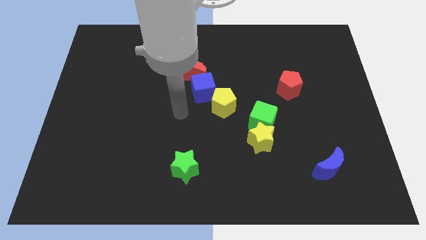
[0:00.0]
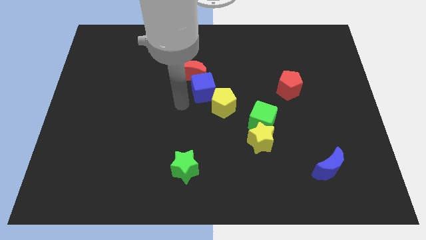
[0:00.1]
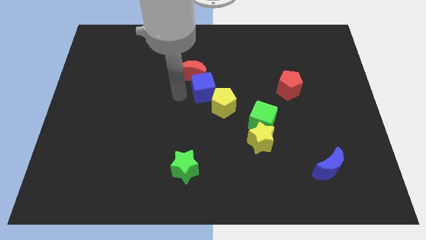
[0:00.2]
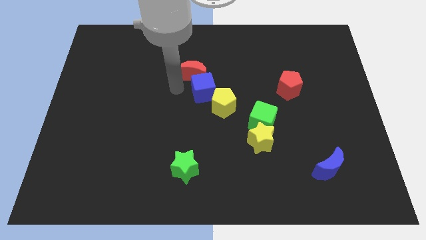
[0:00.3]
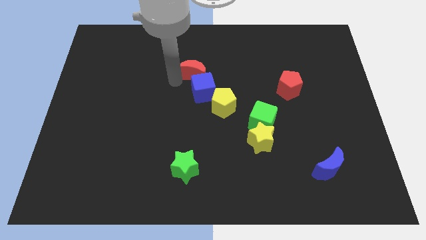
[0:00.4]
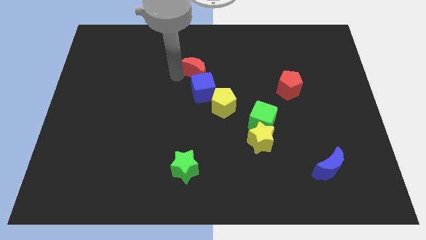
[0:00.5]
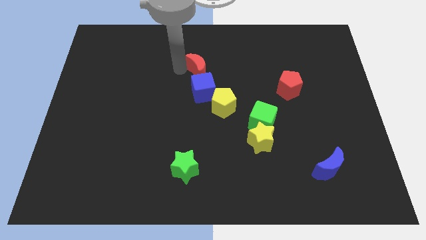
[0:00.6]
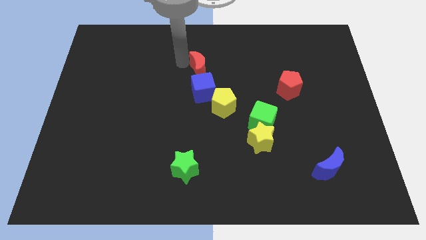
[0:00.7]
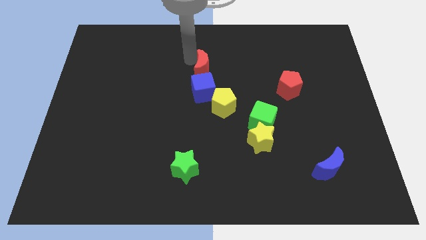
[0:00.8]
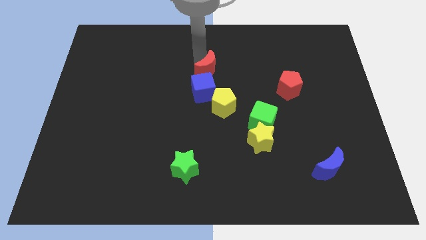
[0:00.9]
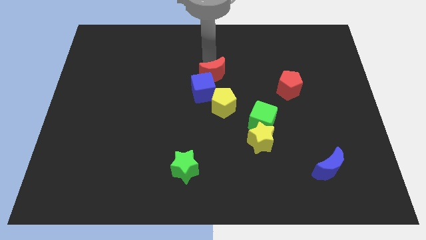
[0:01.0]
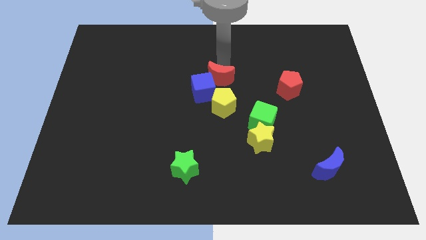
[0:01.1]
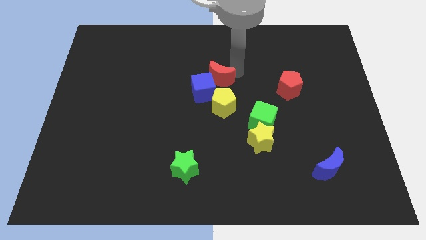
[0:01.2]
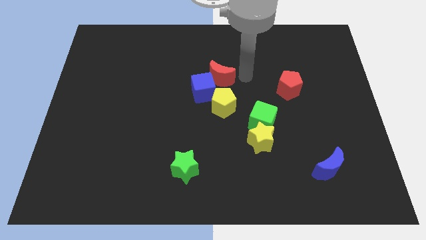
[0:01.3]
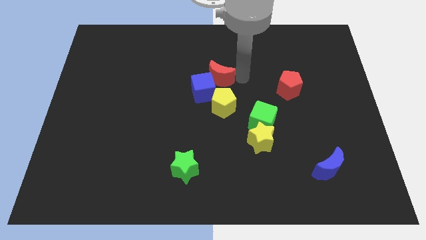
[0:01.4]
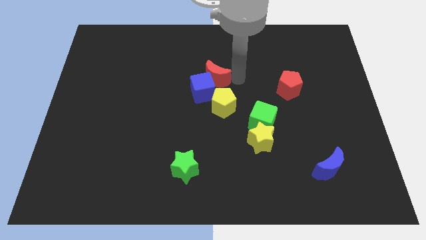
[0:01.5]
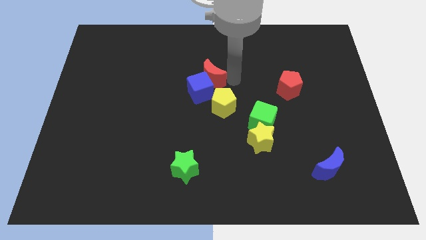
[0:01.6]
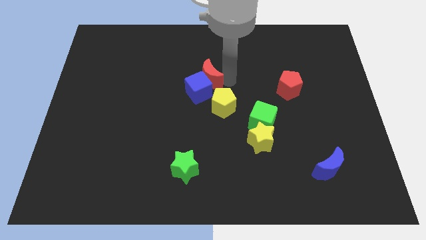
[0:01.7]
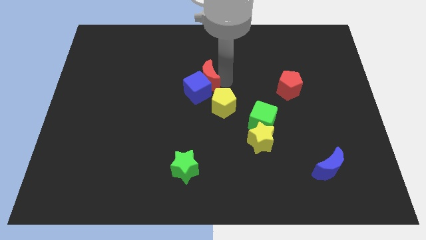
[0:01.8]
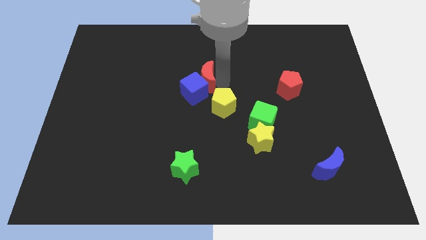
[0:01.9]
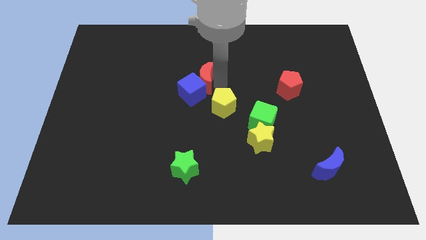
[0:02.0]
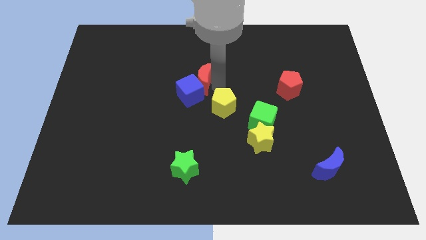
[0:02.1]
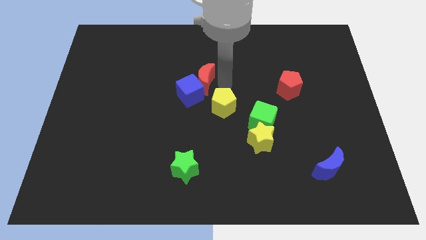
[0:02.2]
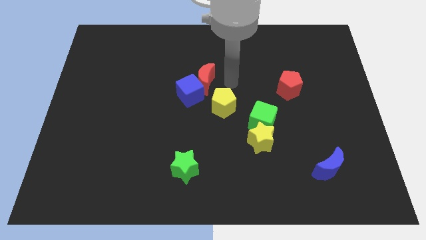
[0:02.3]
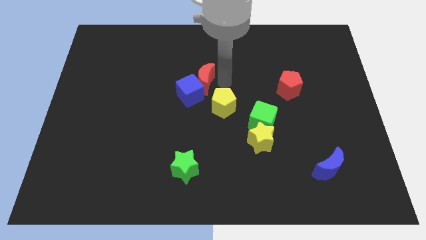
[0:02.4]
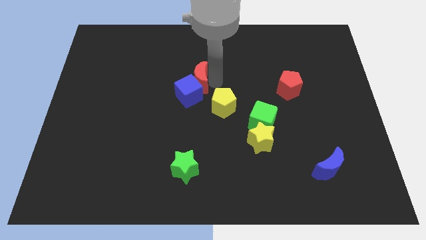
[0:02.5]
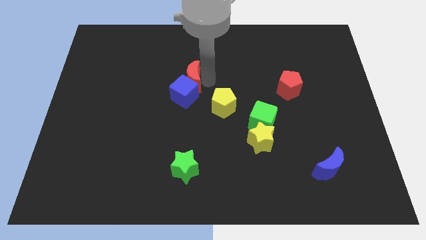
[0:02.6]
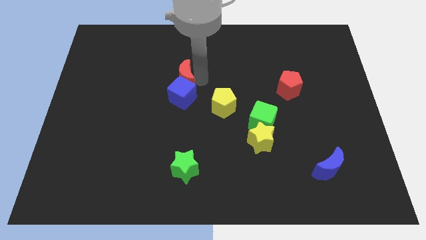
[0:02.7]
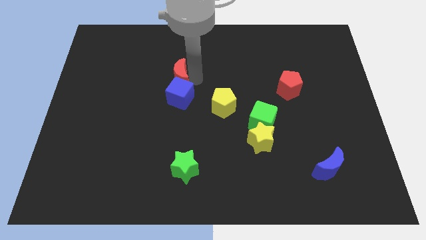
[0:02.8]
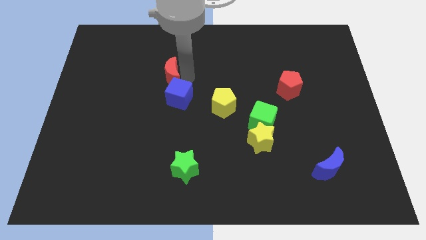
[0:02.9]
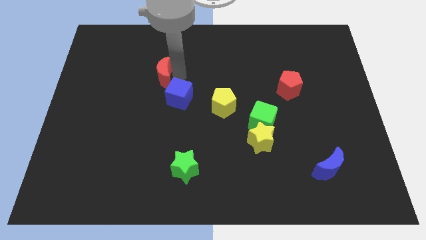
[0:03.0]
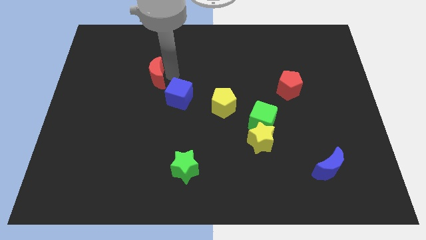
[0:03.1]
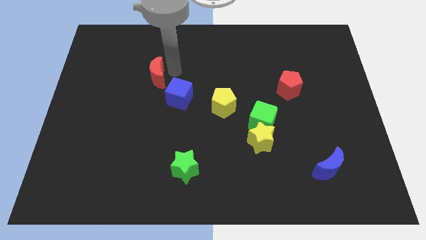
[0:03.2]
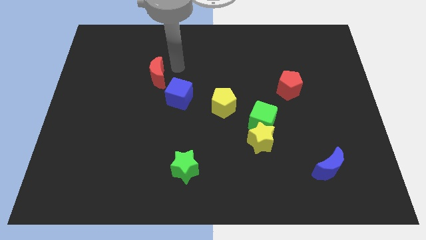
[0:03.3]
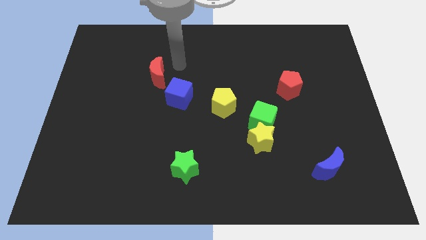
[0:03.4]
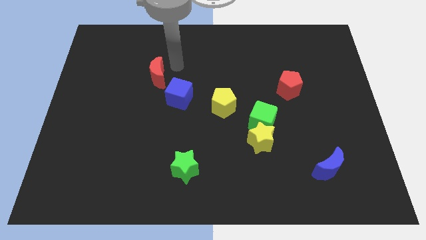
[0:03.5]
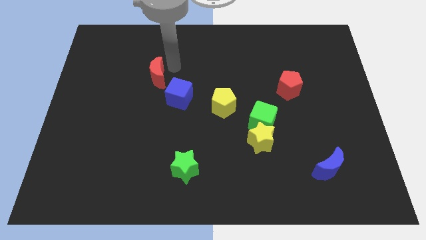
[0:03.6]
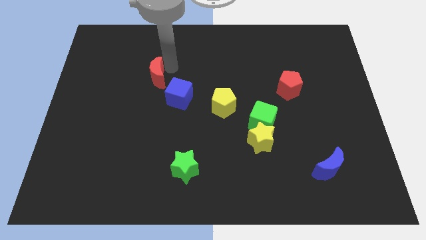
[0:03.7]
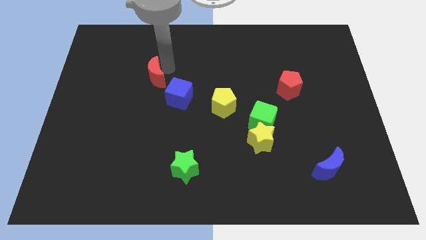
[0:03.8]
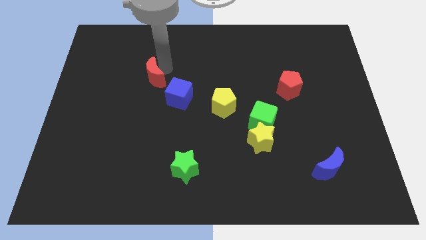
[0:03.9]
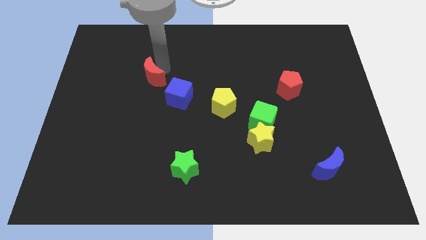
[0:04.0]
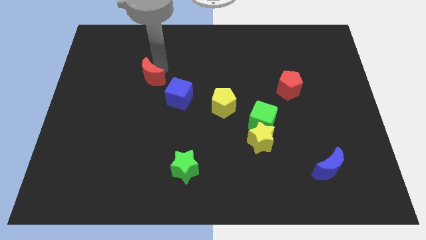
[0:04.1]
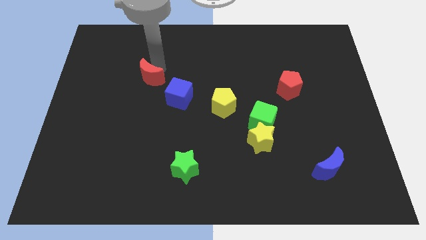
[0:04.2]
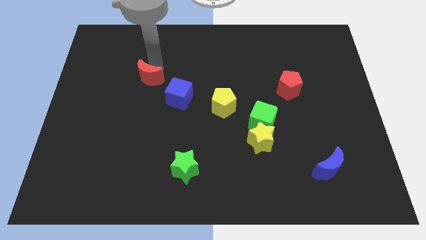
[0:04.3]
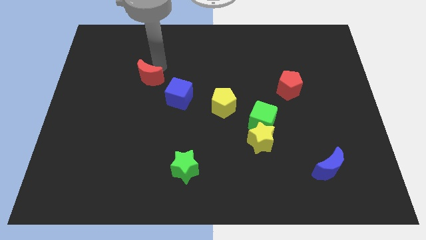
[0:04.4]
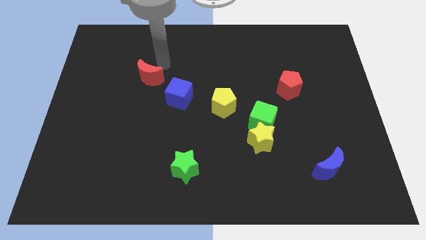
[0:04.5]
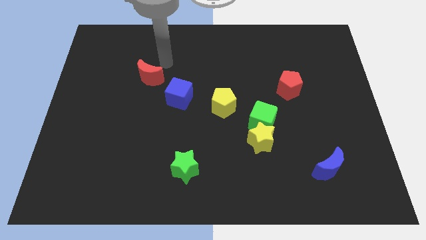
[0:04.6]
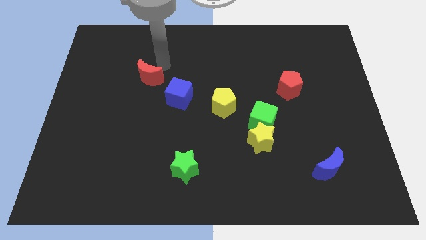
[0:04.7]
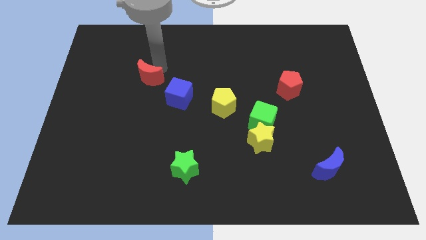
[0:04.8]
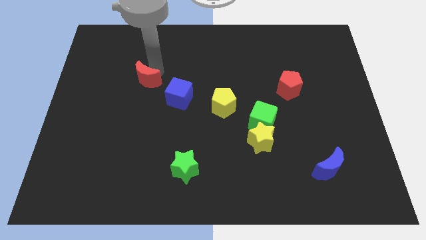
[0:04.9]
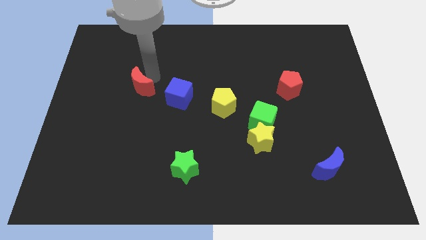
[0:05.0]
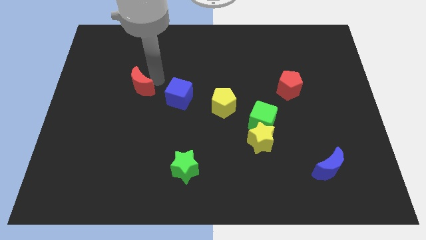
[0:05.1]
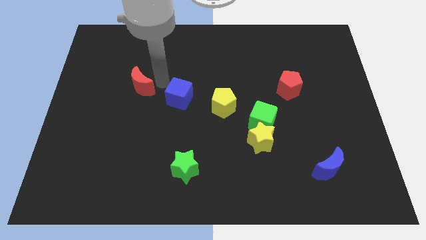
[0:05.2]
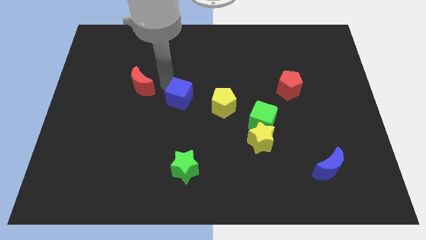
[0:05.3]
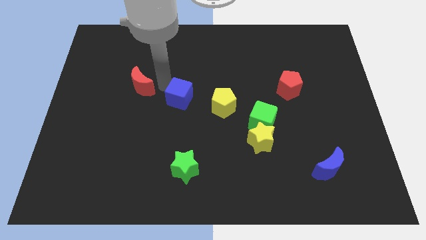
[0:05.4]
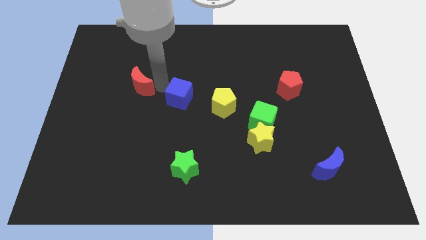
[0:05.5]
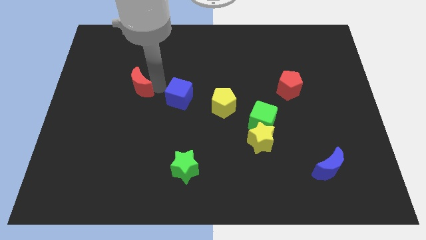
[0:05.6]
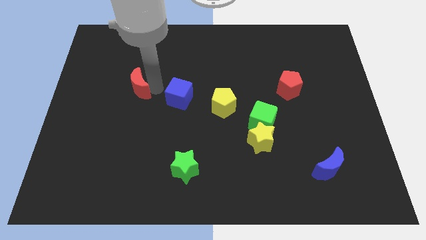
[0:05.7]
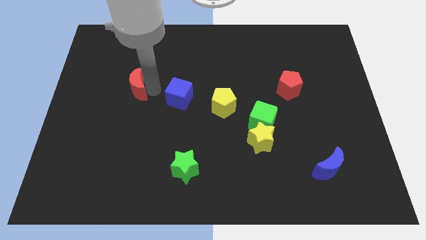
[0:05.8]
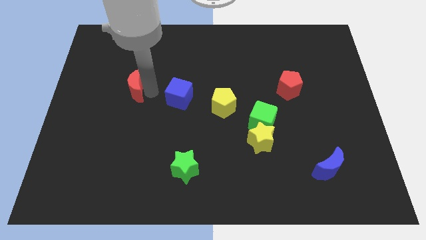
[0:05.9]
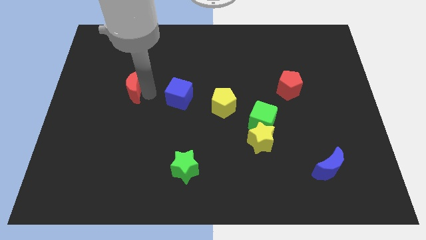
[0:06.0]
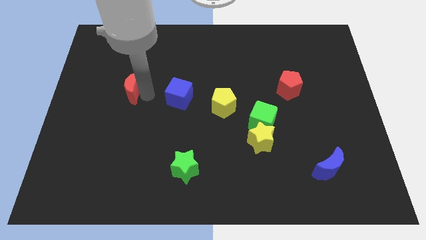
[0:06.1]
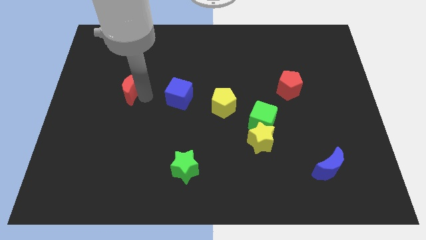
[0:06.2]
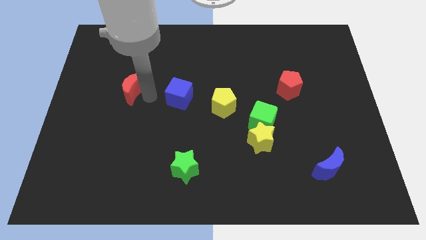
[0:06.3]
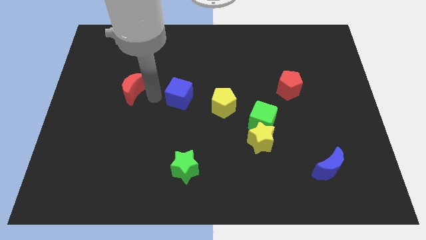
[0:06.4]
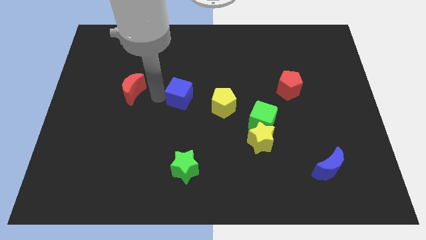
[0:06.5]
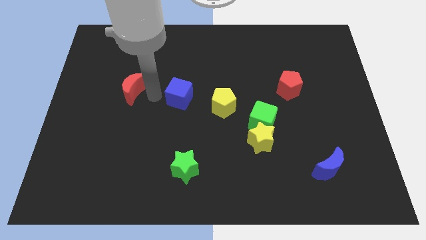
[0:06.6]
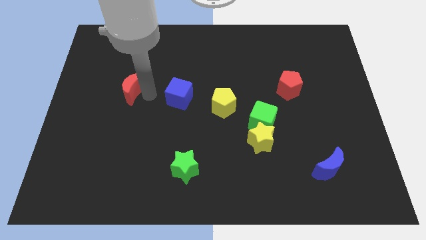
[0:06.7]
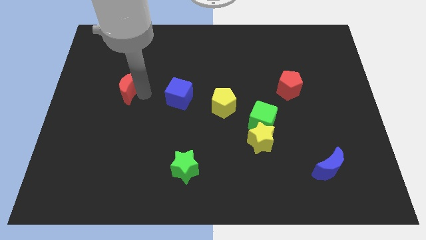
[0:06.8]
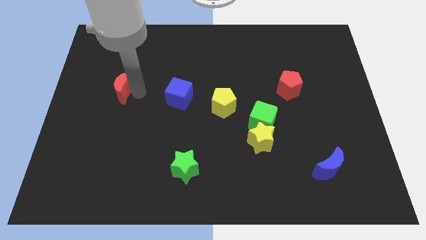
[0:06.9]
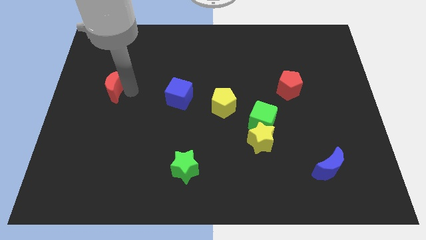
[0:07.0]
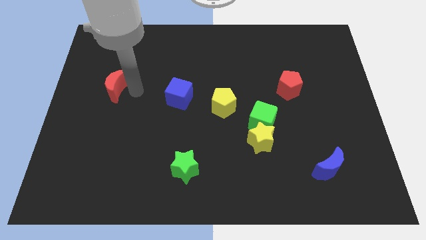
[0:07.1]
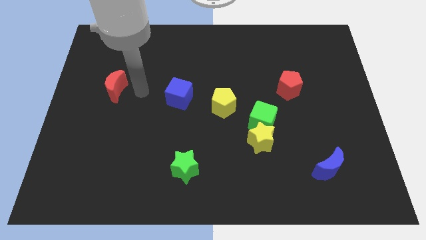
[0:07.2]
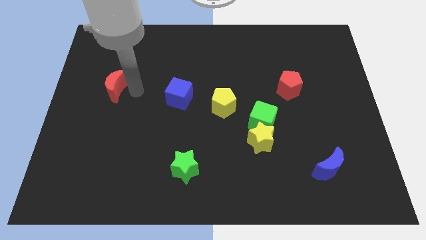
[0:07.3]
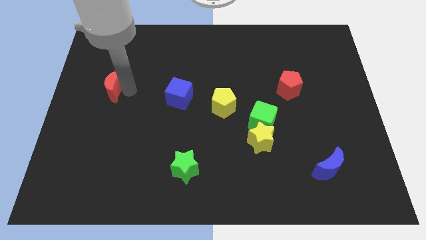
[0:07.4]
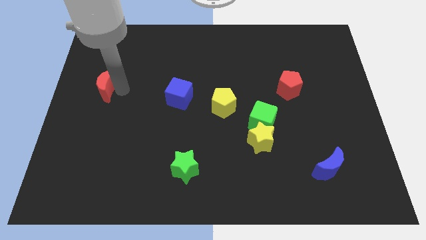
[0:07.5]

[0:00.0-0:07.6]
move the red moon to the left side
